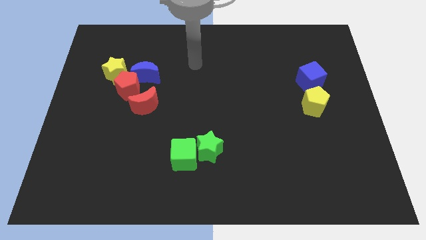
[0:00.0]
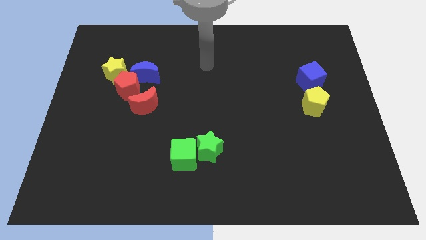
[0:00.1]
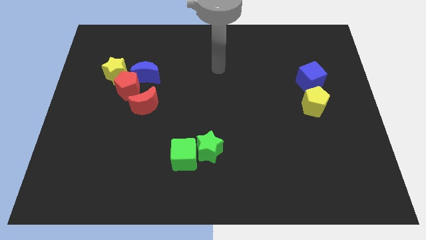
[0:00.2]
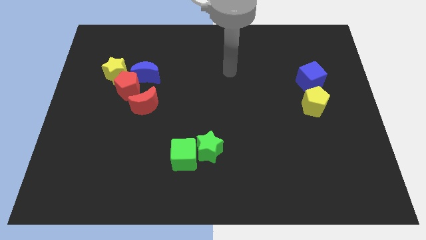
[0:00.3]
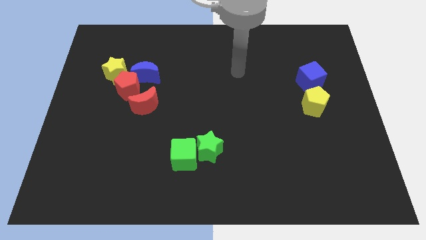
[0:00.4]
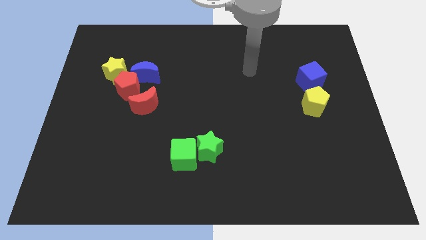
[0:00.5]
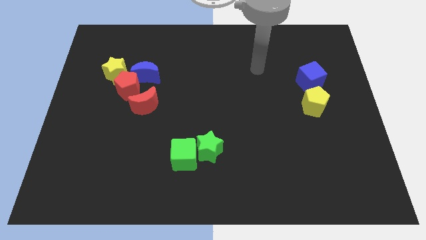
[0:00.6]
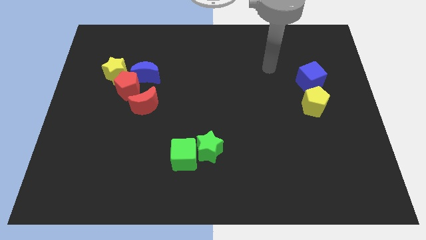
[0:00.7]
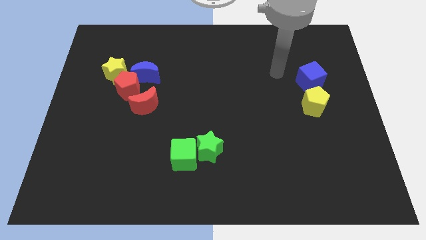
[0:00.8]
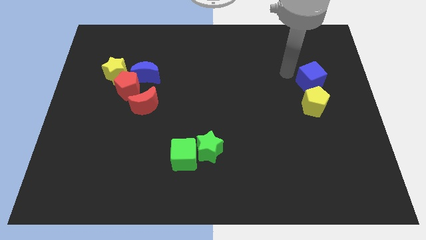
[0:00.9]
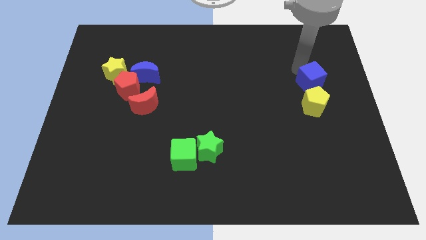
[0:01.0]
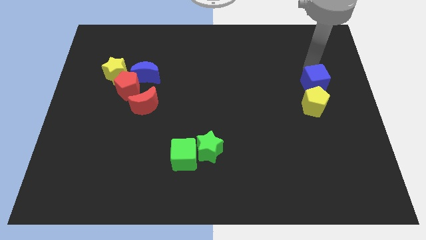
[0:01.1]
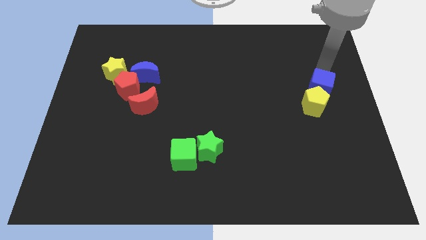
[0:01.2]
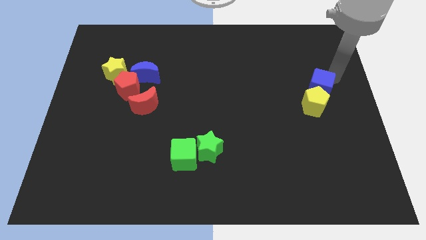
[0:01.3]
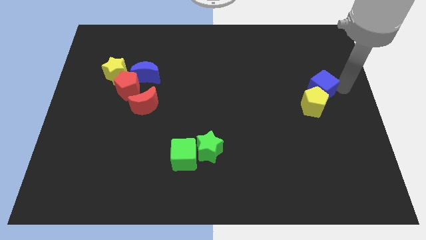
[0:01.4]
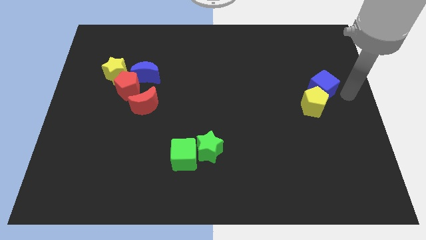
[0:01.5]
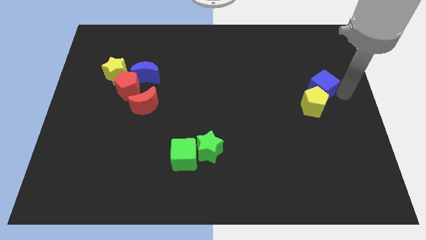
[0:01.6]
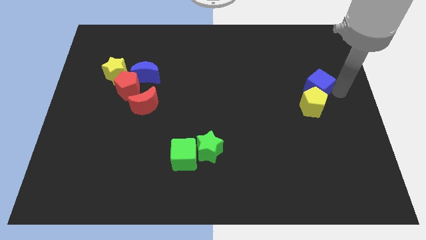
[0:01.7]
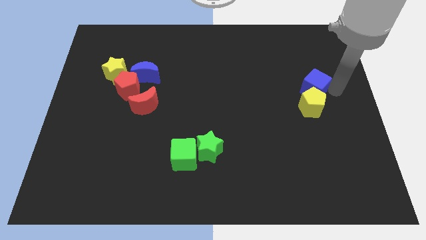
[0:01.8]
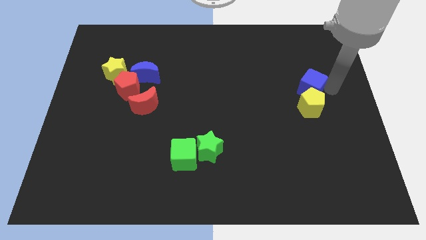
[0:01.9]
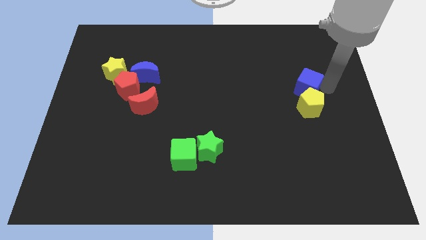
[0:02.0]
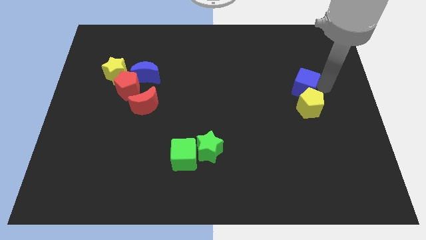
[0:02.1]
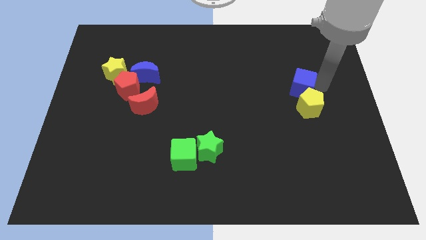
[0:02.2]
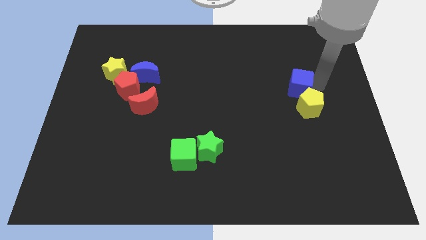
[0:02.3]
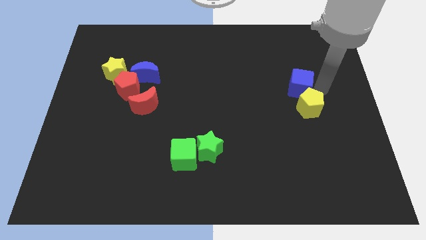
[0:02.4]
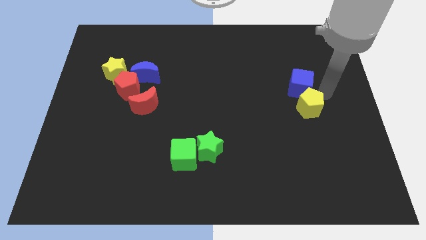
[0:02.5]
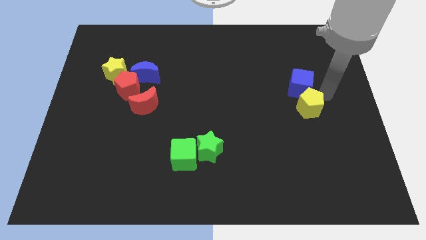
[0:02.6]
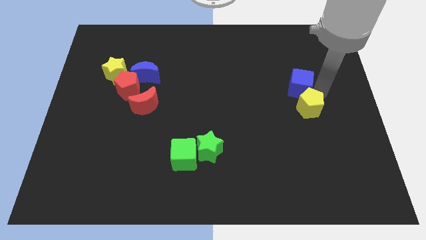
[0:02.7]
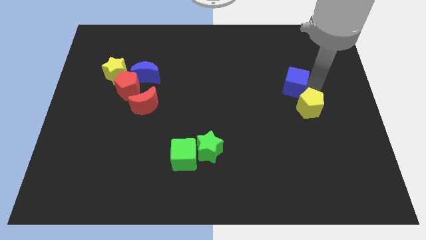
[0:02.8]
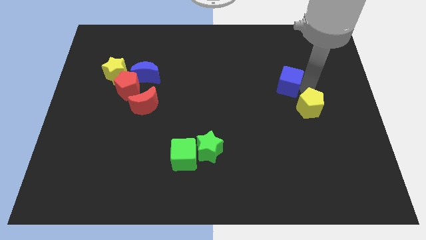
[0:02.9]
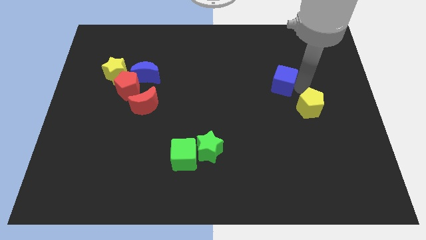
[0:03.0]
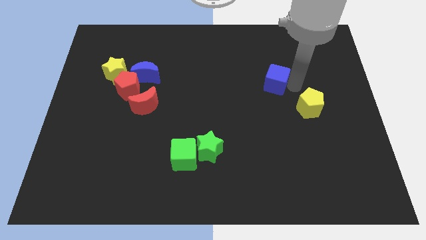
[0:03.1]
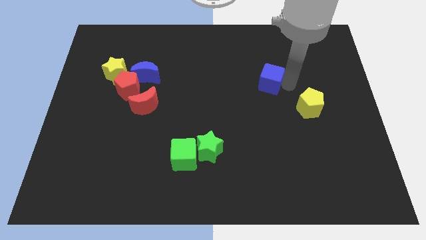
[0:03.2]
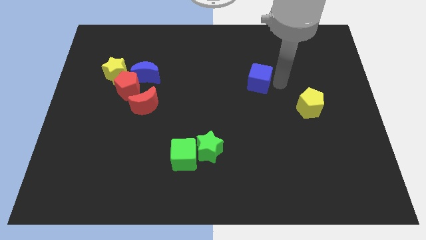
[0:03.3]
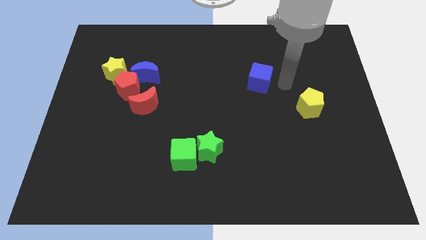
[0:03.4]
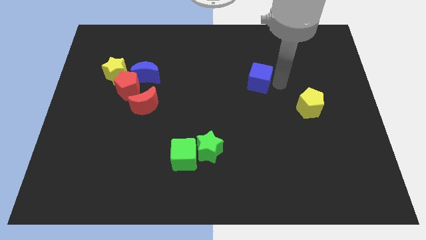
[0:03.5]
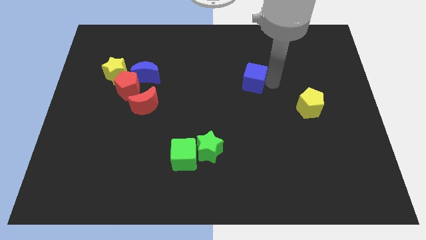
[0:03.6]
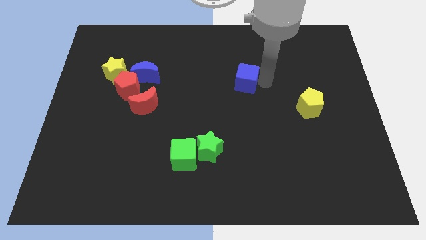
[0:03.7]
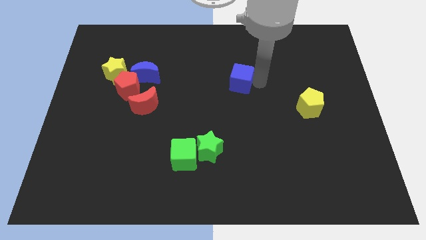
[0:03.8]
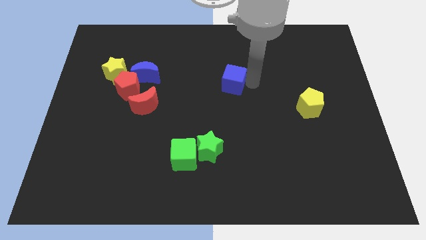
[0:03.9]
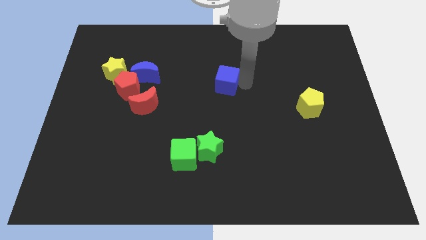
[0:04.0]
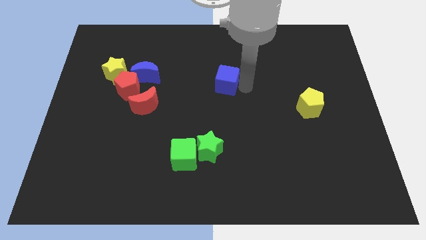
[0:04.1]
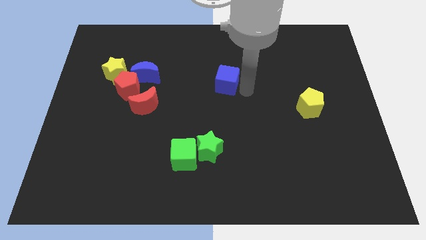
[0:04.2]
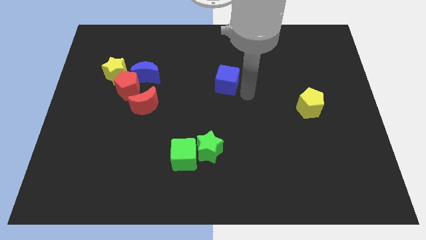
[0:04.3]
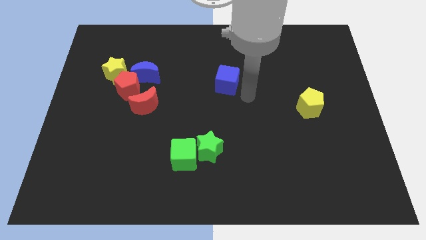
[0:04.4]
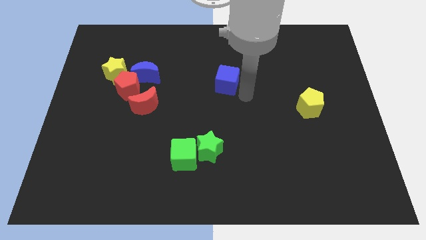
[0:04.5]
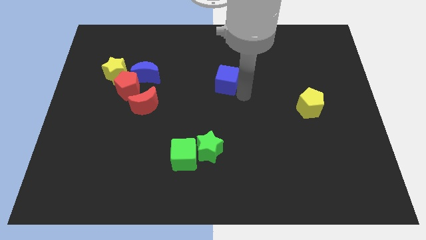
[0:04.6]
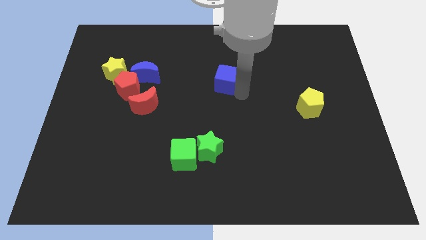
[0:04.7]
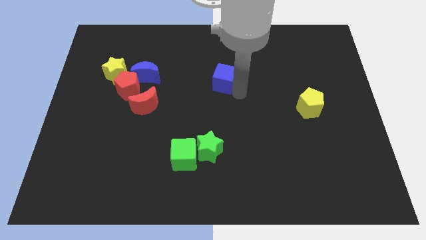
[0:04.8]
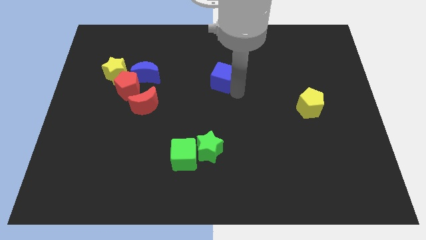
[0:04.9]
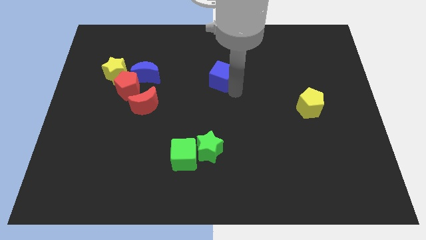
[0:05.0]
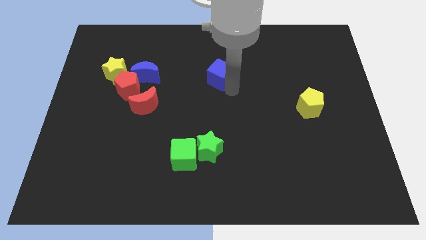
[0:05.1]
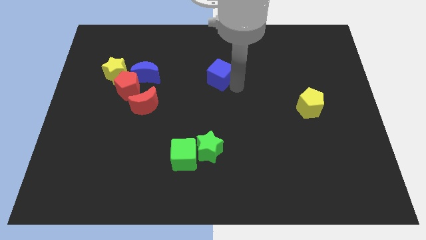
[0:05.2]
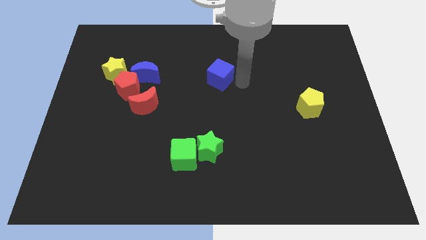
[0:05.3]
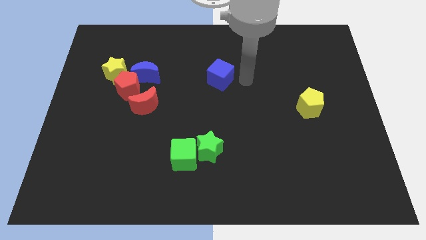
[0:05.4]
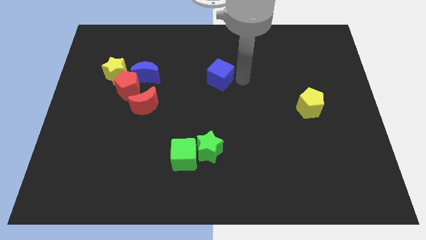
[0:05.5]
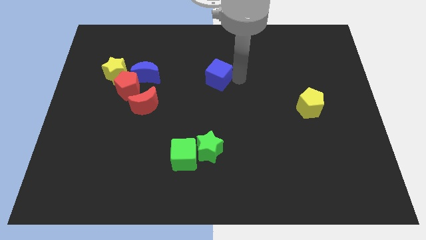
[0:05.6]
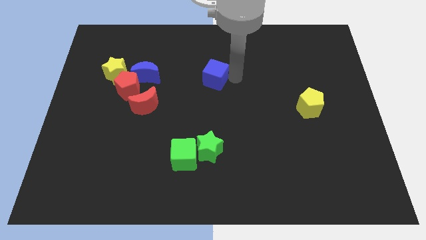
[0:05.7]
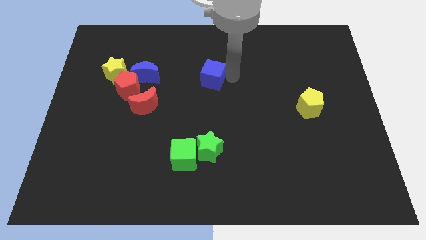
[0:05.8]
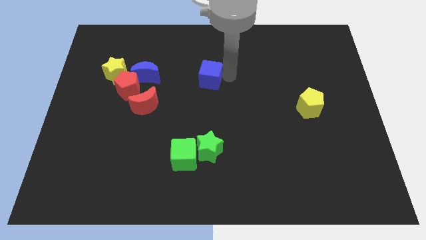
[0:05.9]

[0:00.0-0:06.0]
slide the blue cube right of the blue moon

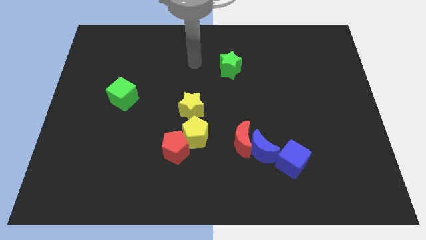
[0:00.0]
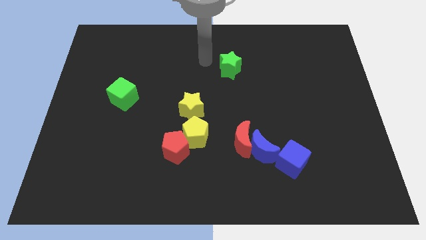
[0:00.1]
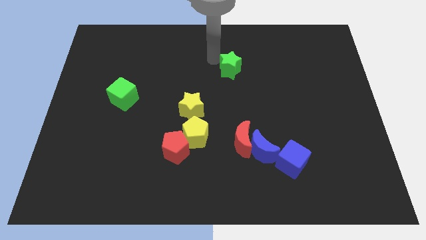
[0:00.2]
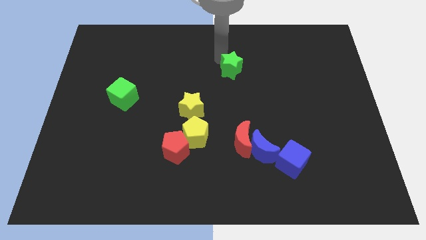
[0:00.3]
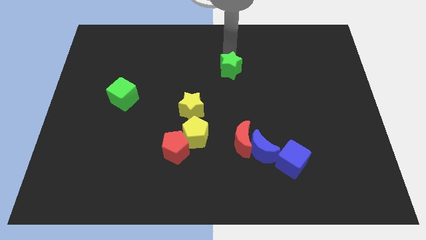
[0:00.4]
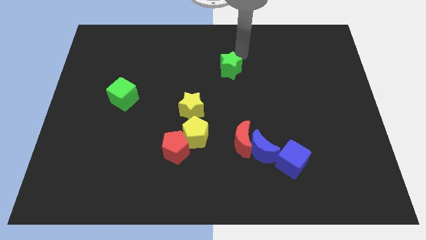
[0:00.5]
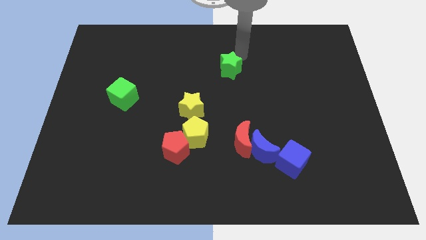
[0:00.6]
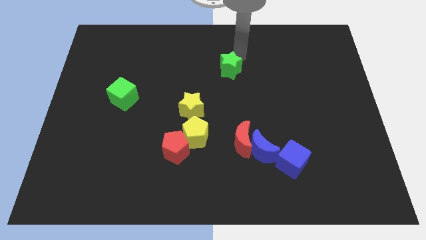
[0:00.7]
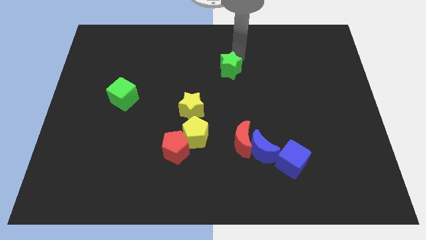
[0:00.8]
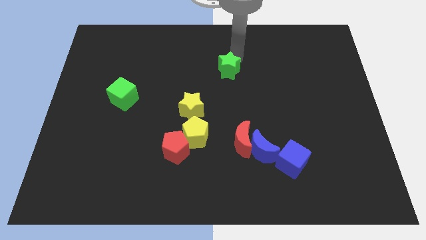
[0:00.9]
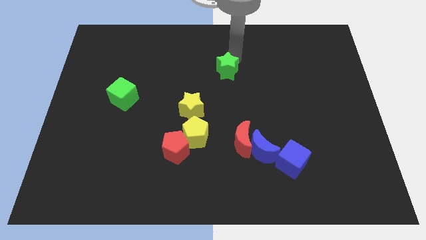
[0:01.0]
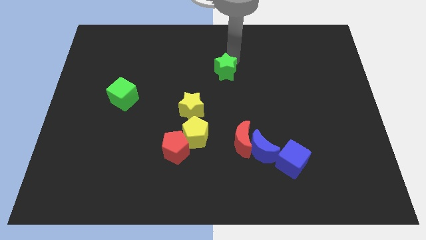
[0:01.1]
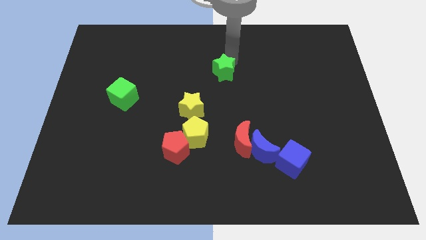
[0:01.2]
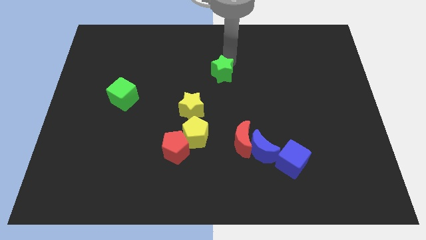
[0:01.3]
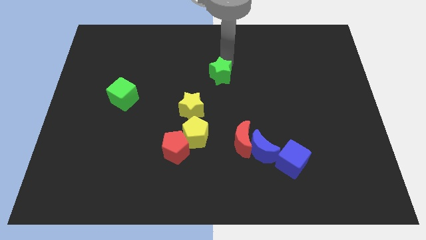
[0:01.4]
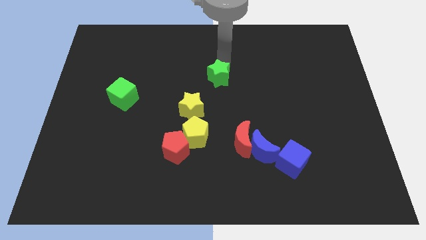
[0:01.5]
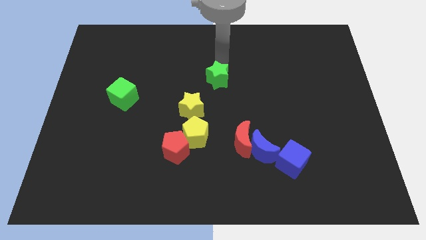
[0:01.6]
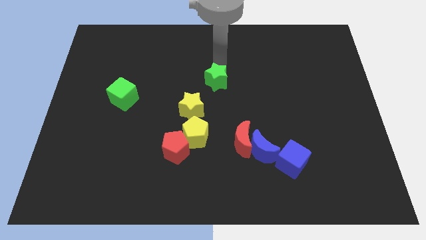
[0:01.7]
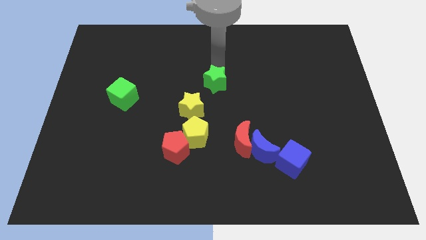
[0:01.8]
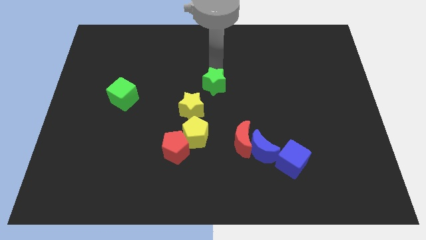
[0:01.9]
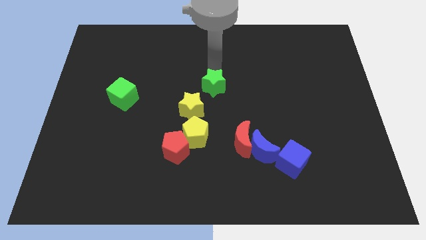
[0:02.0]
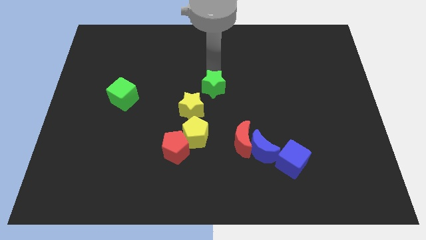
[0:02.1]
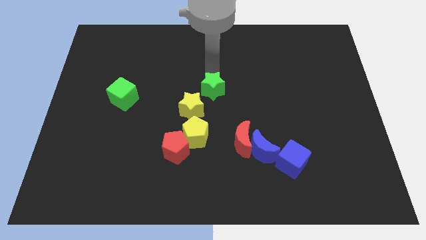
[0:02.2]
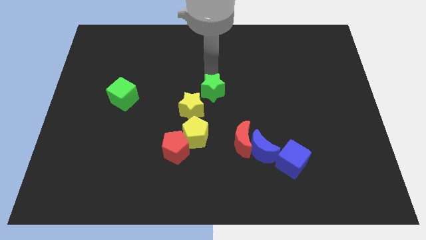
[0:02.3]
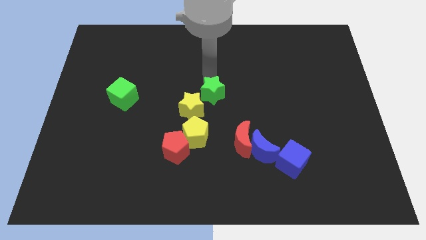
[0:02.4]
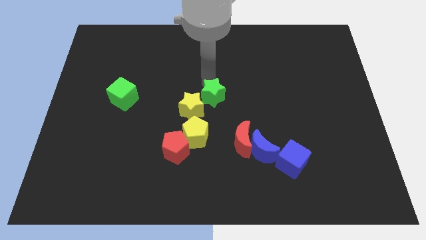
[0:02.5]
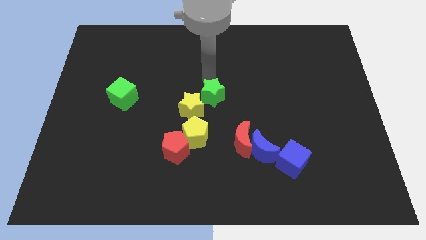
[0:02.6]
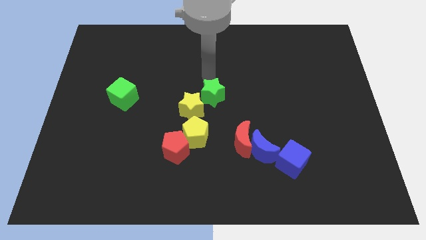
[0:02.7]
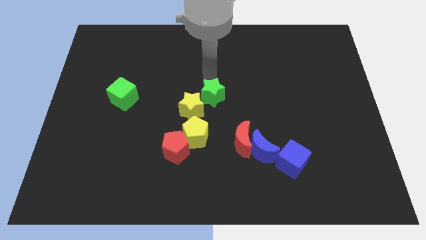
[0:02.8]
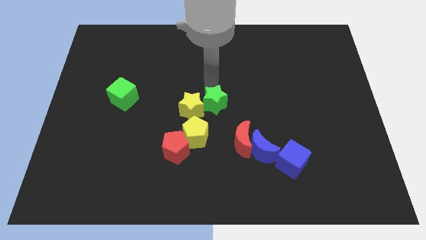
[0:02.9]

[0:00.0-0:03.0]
push the green star diagonally up and to the left of the red moon
